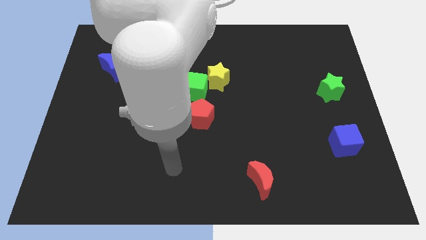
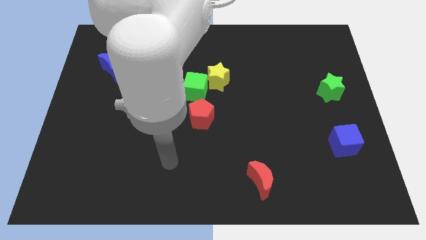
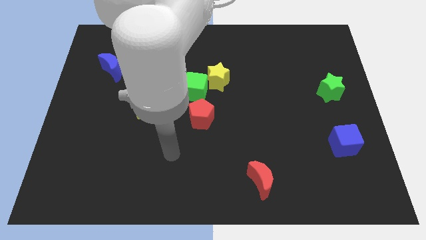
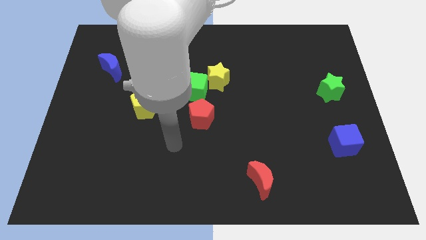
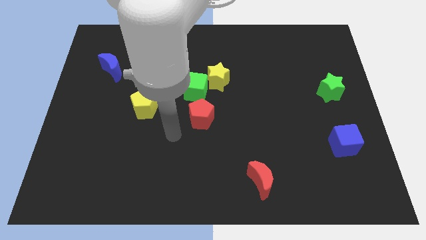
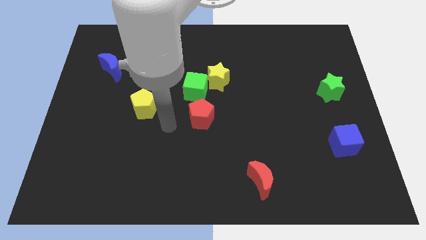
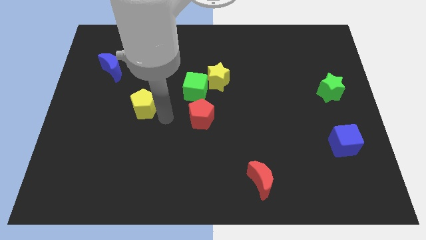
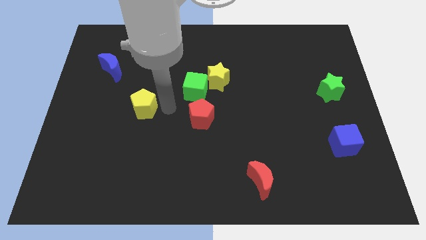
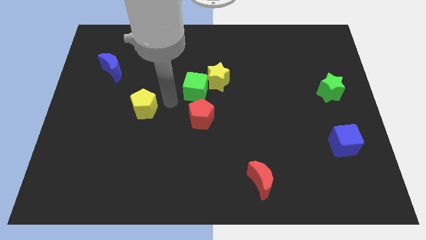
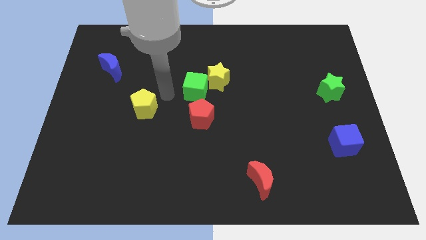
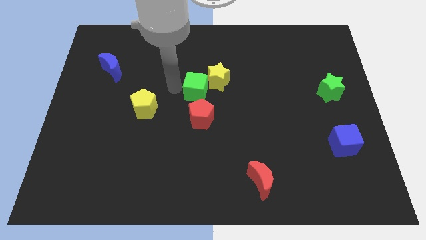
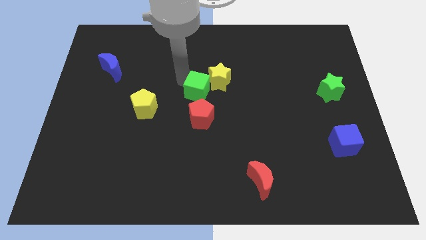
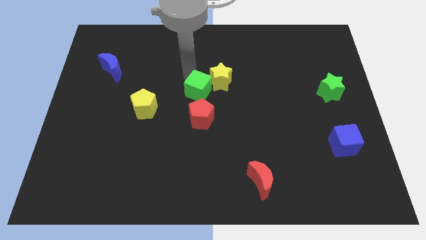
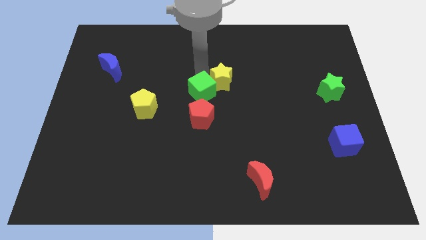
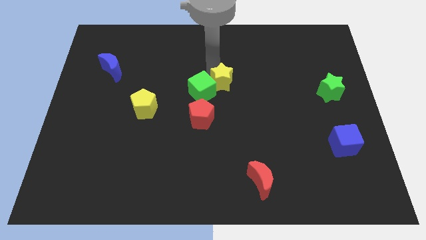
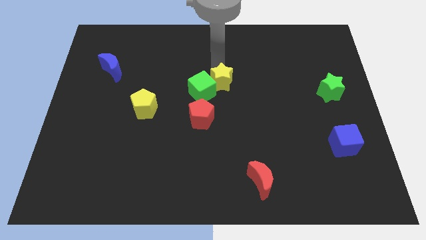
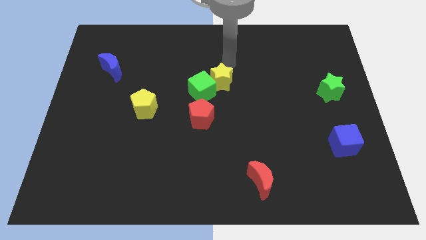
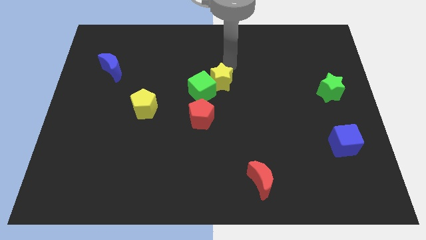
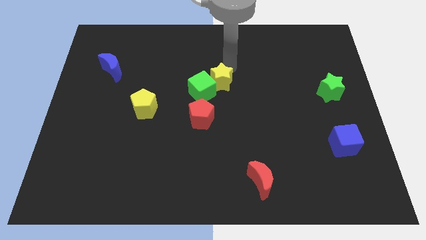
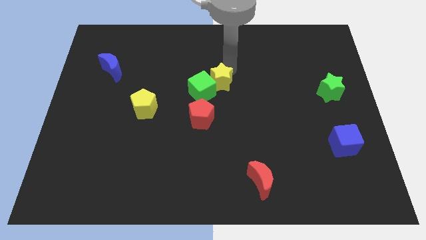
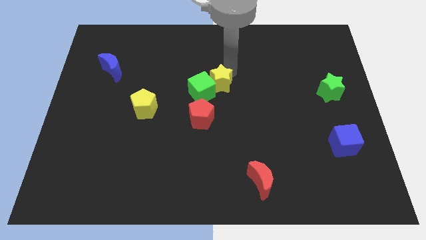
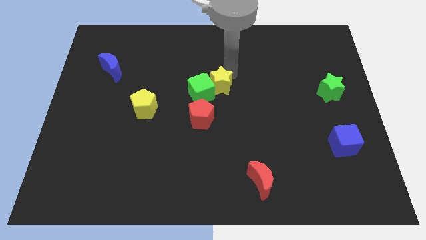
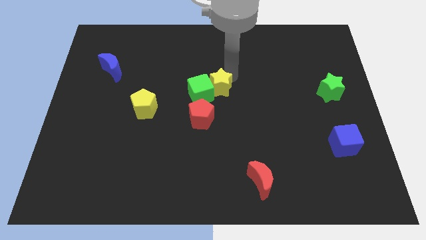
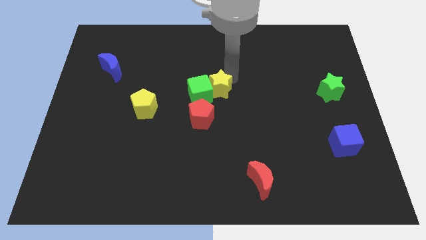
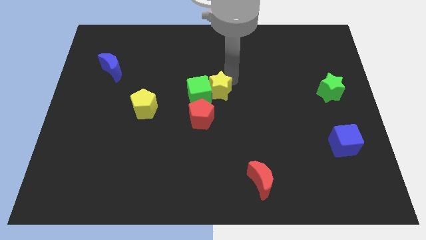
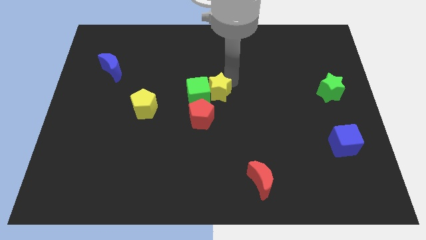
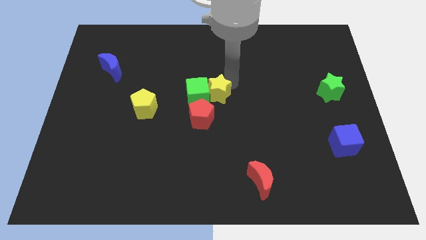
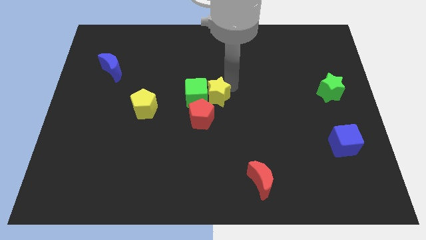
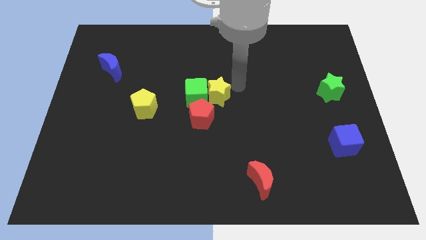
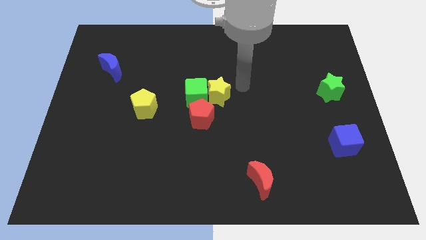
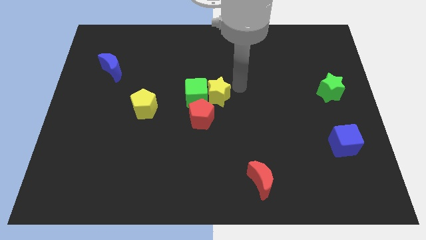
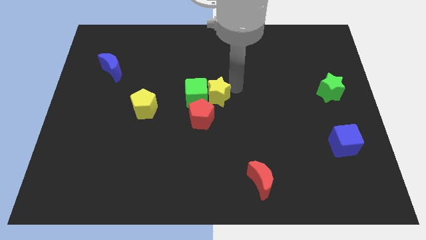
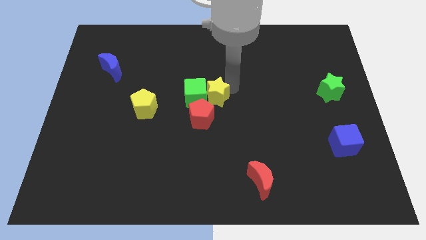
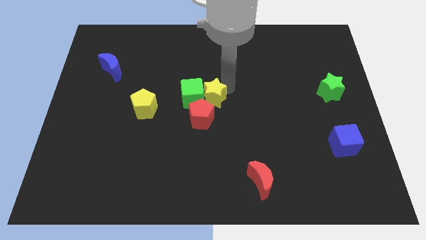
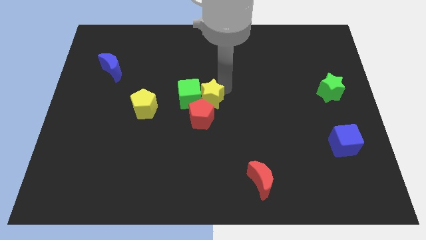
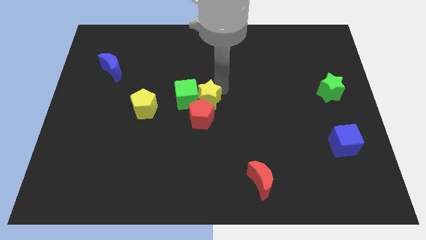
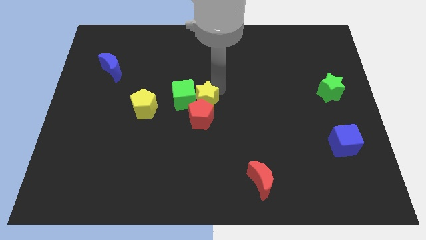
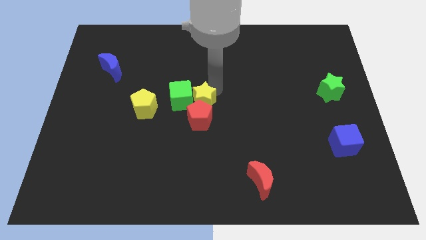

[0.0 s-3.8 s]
slide the yellow star a little diagonally down and left

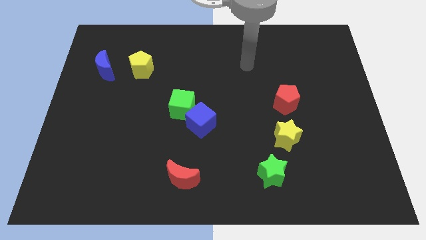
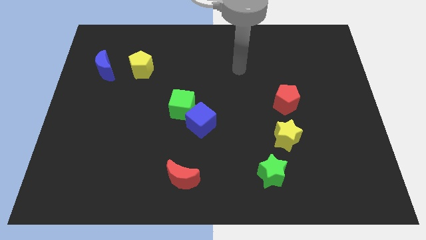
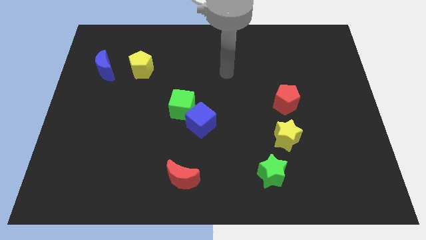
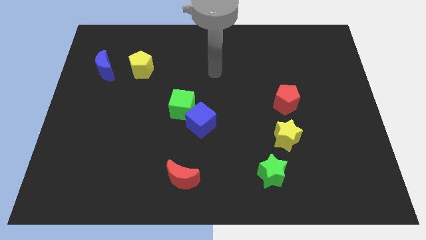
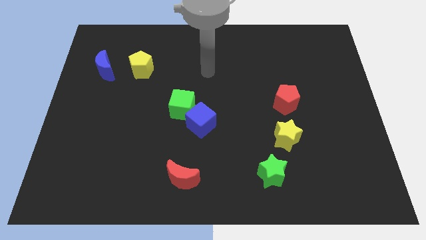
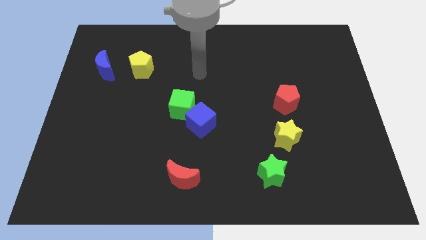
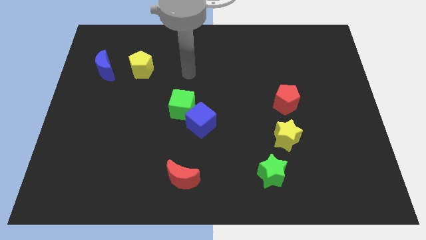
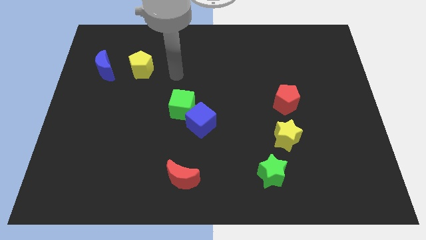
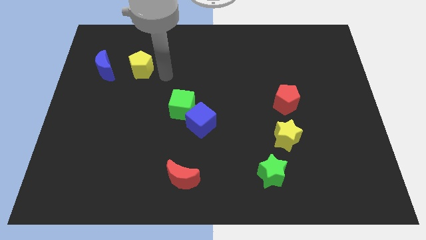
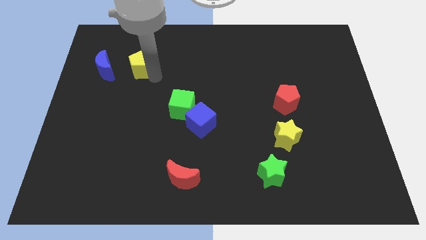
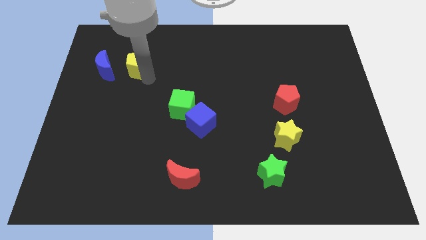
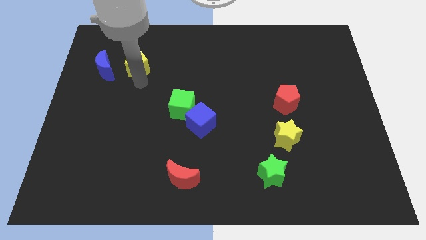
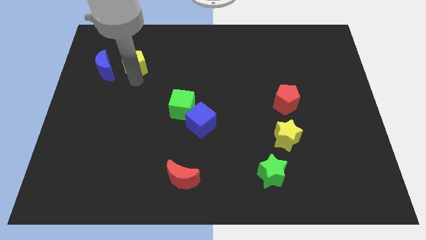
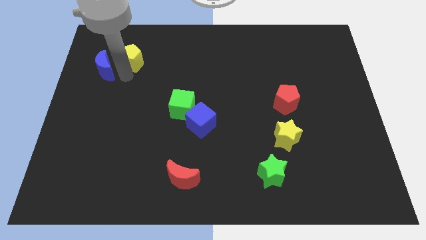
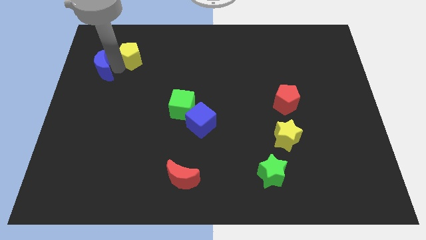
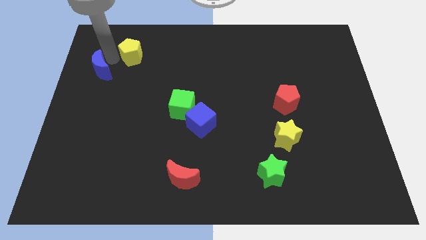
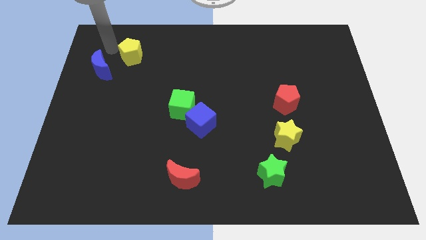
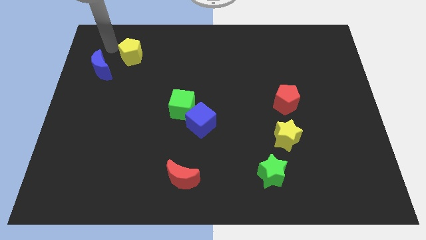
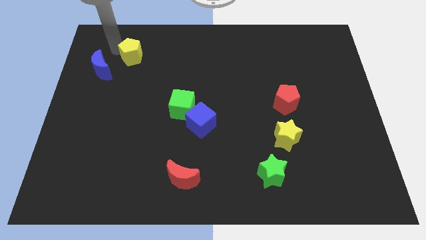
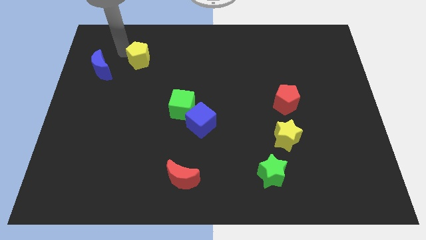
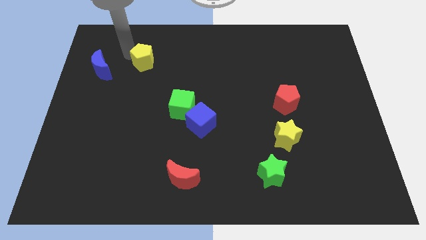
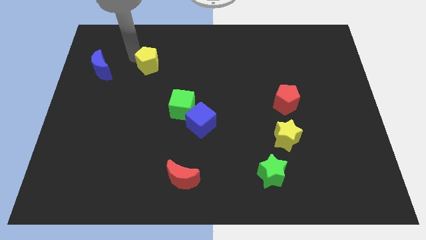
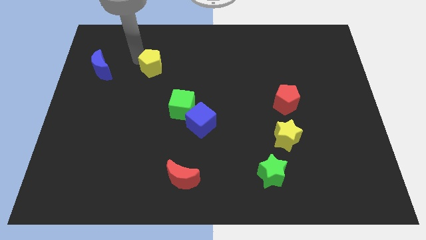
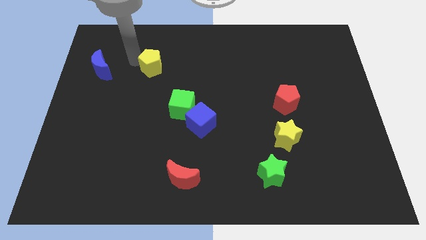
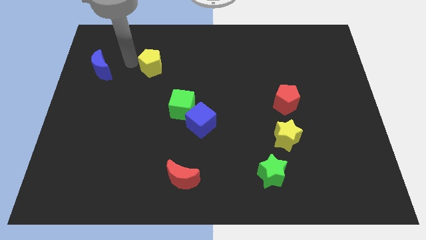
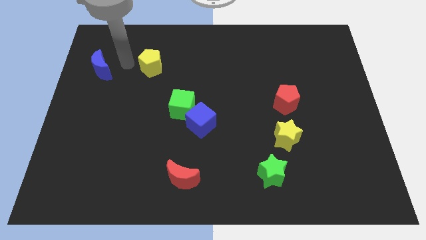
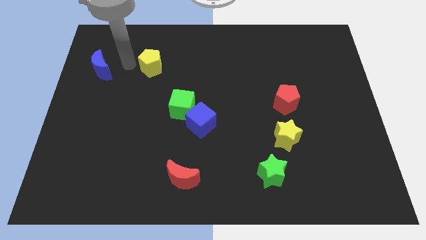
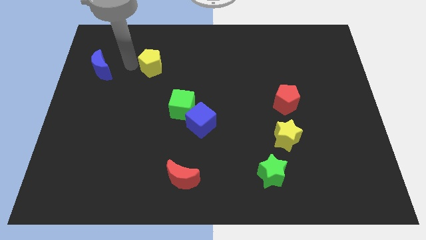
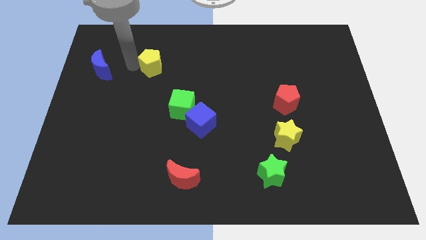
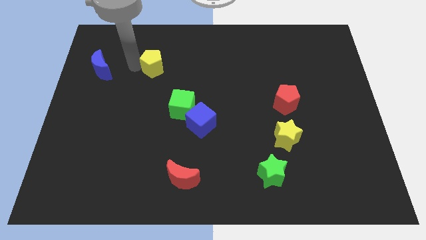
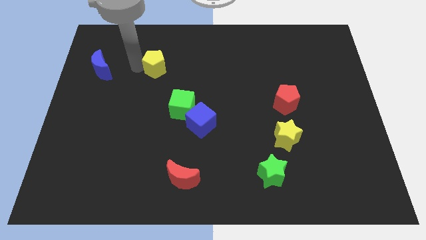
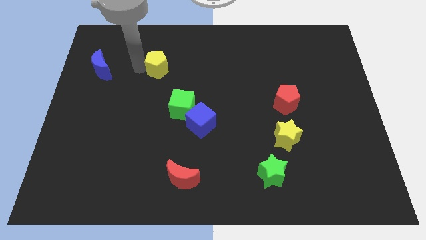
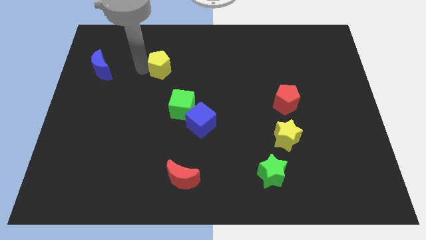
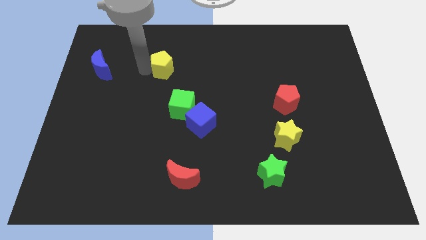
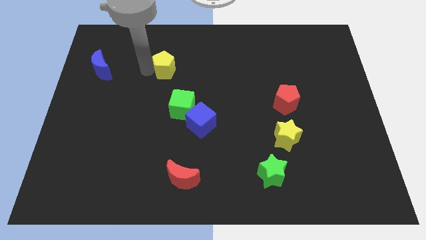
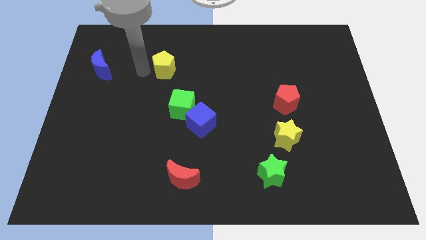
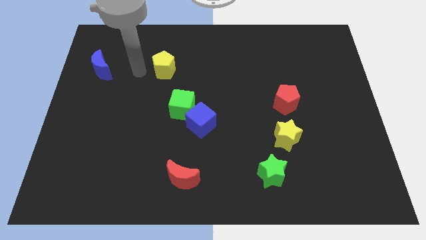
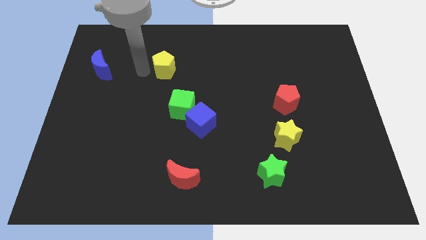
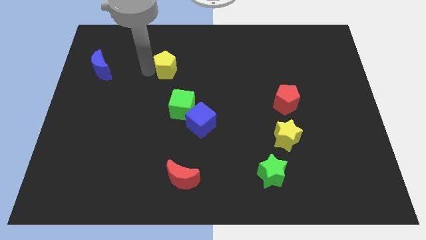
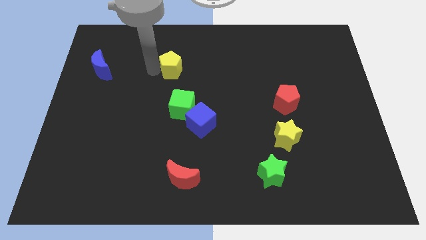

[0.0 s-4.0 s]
push the yellow pentagon right a little bit
